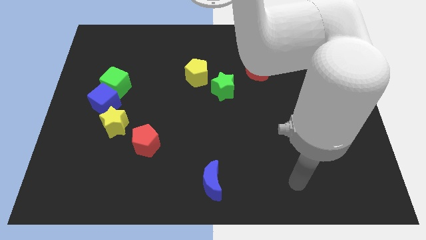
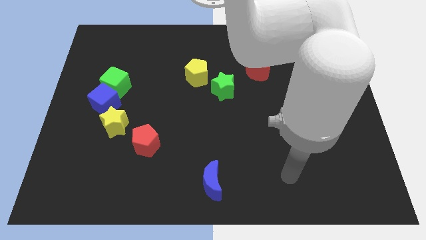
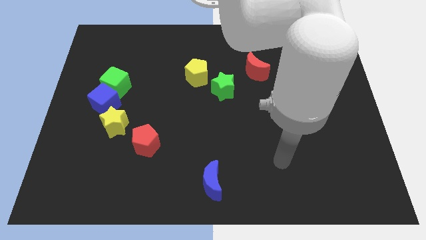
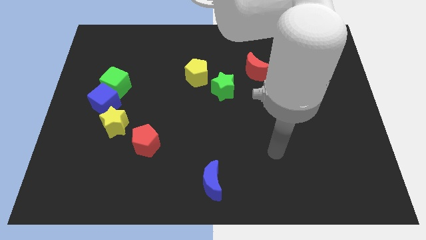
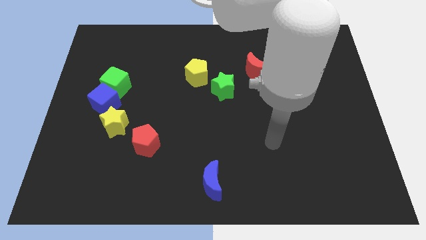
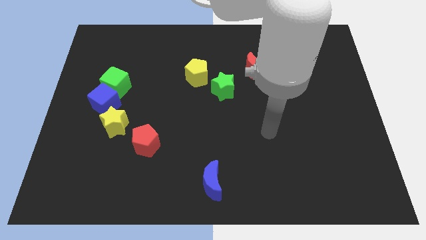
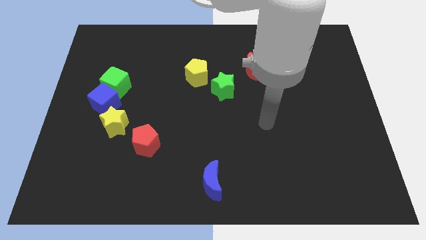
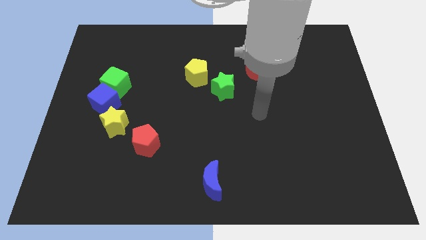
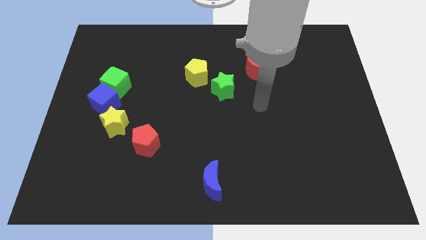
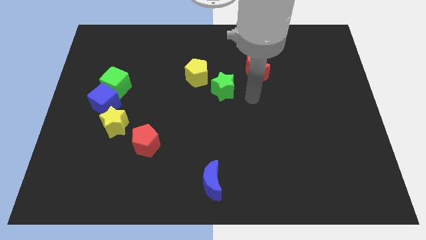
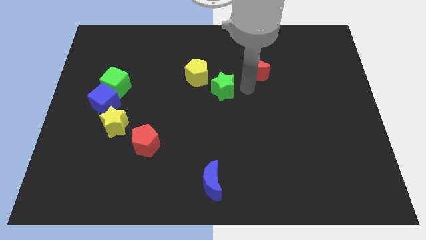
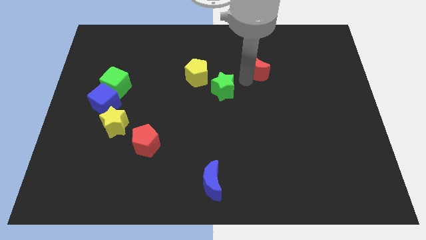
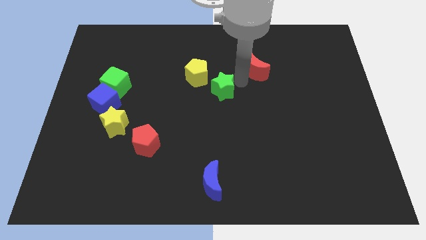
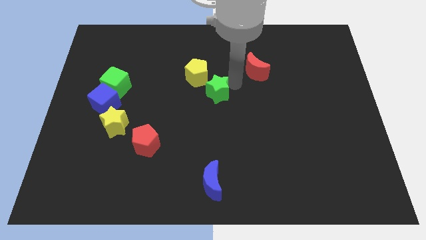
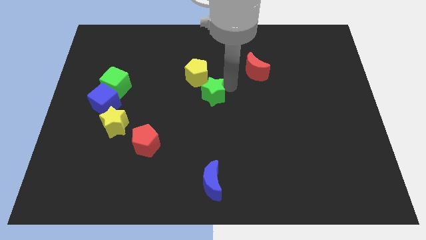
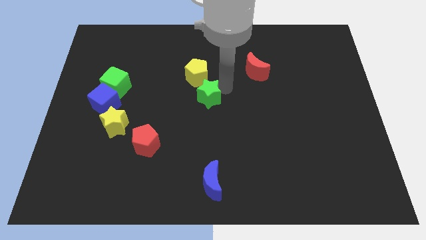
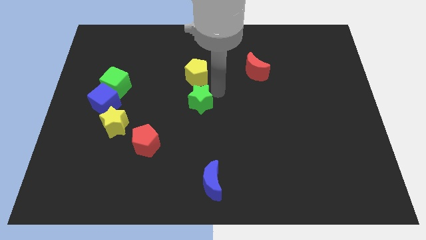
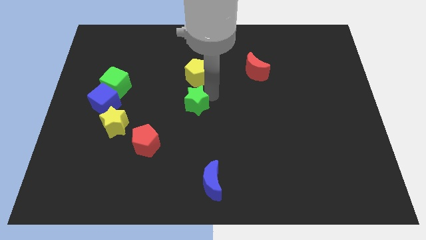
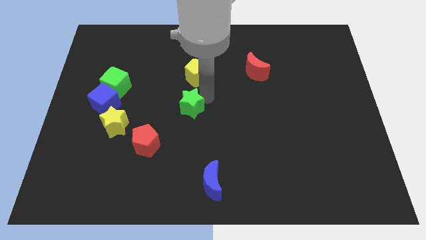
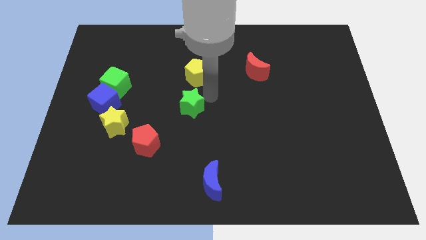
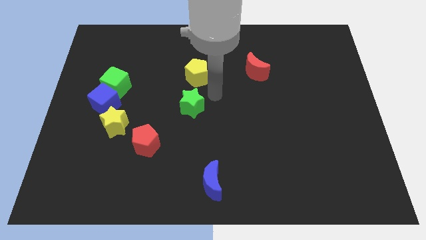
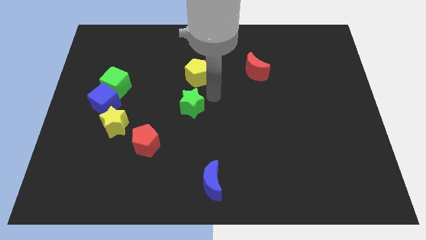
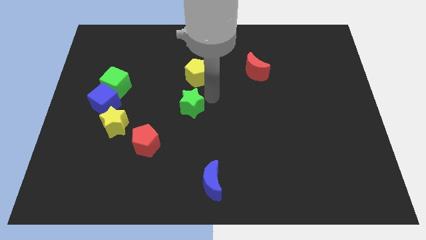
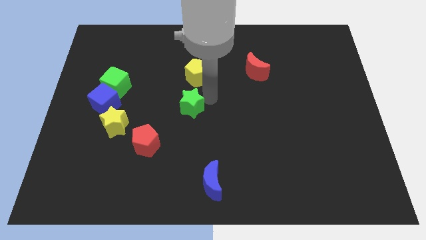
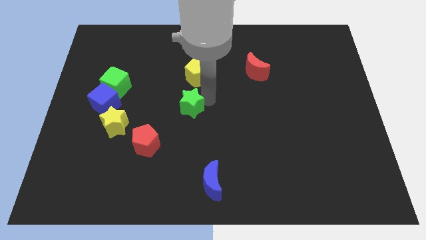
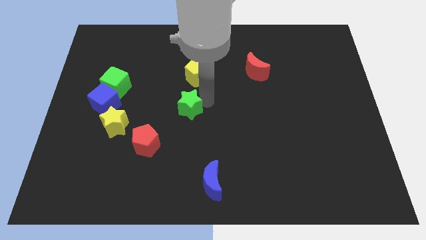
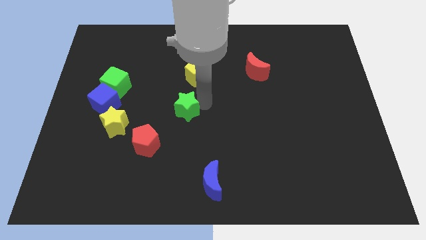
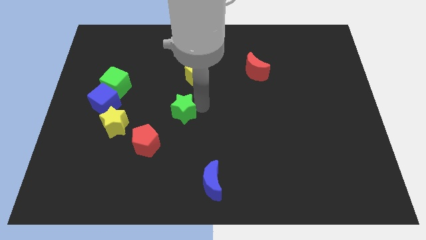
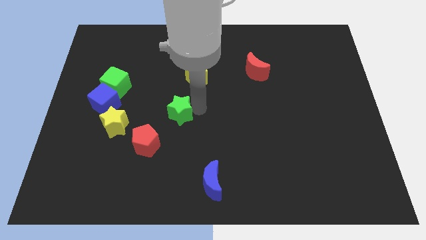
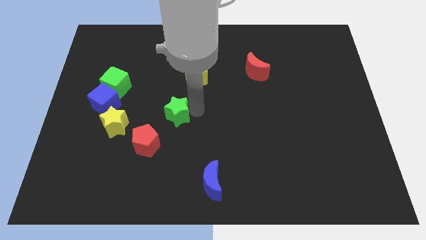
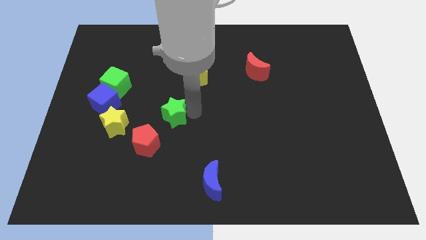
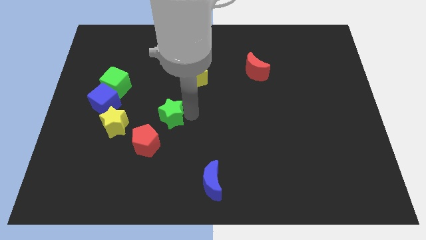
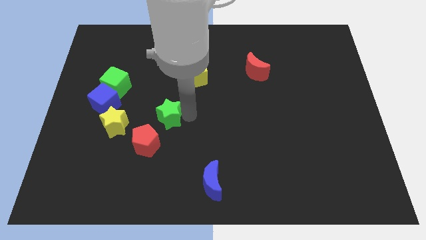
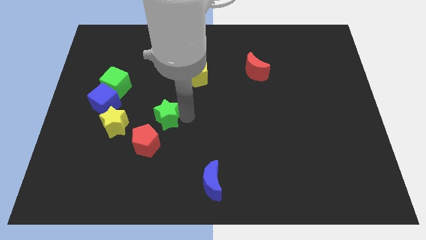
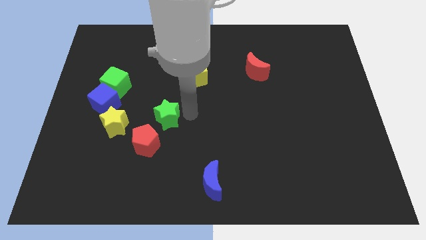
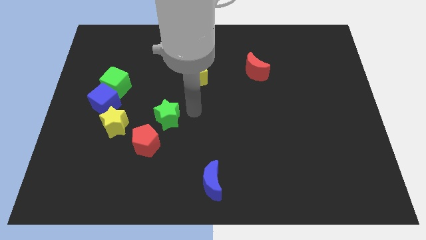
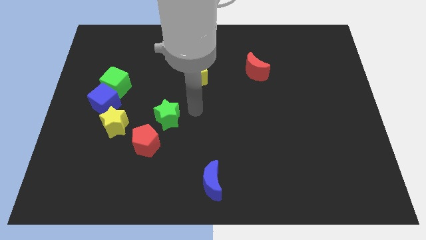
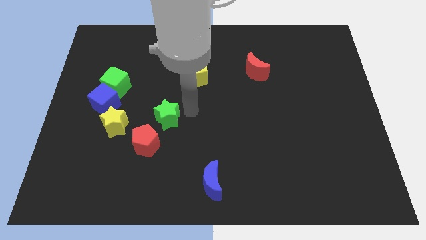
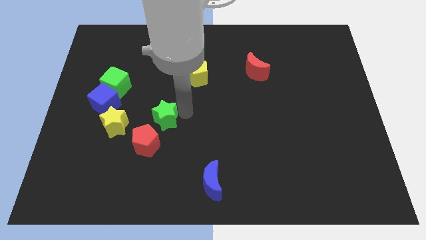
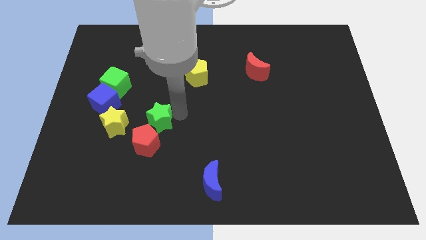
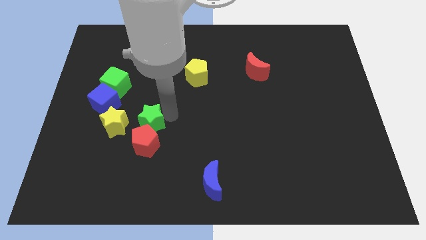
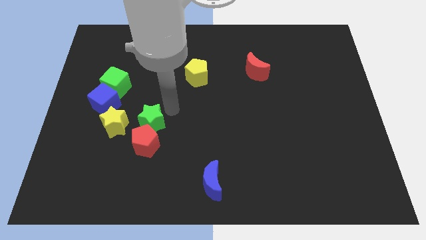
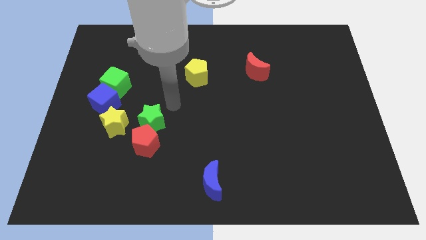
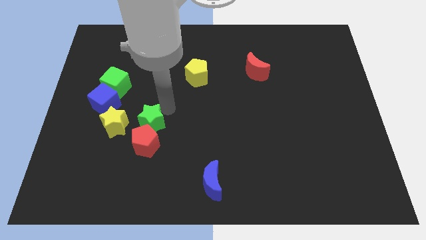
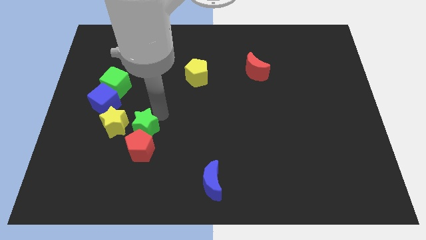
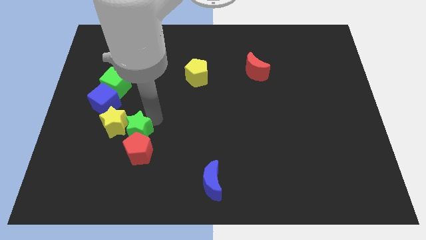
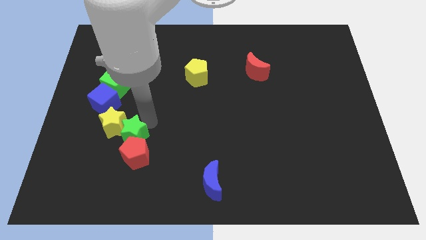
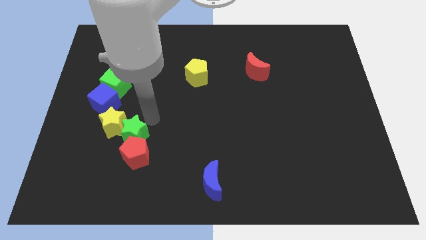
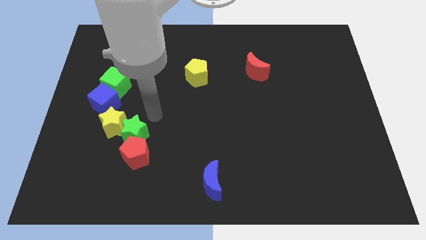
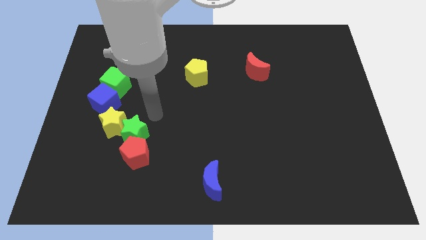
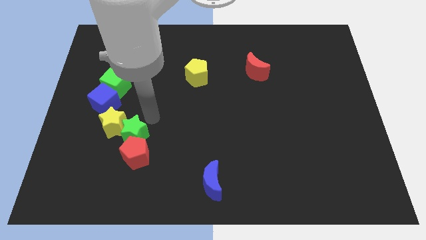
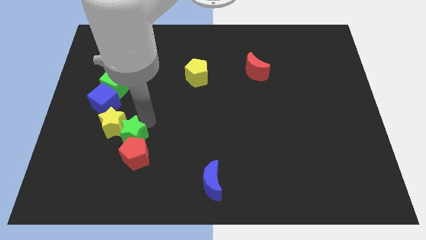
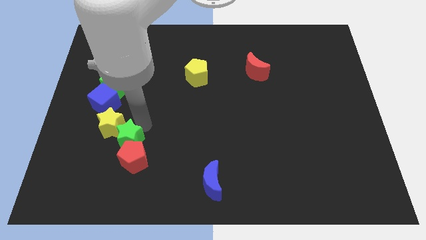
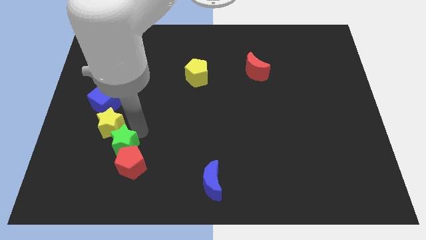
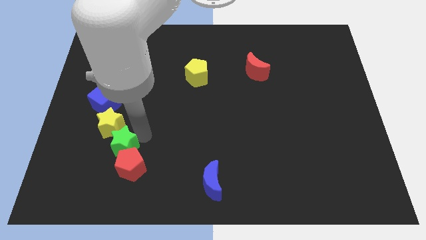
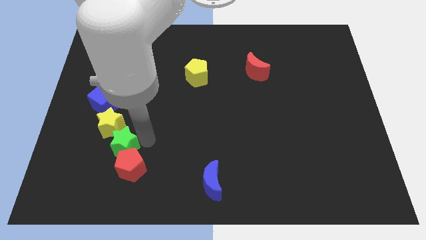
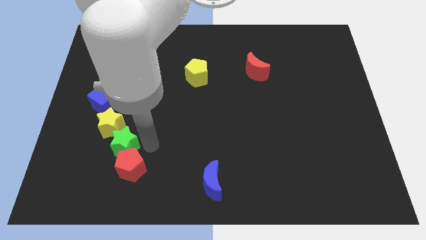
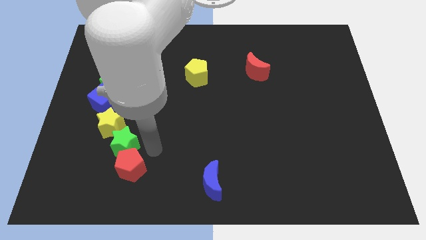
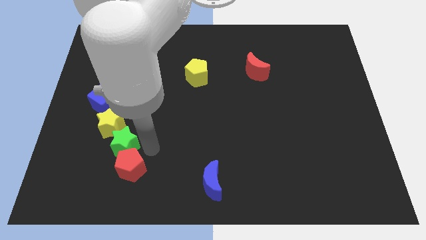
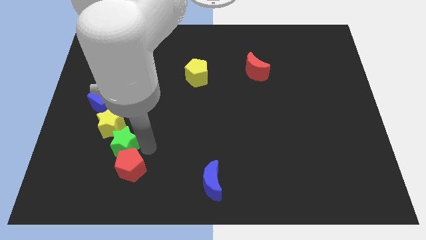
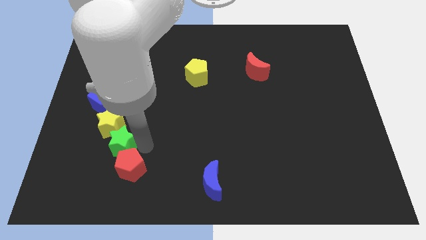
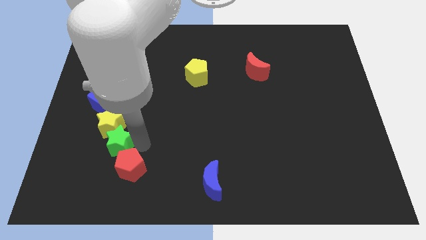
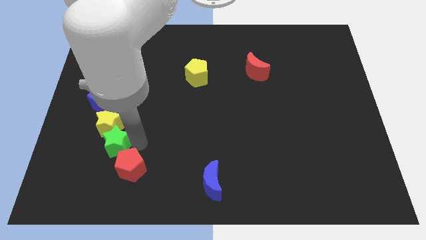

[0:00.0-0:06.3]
slide the green star to the bottom side of the blue cube

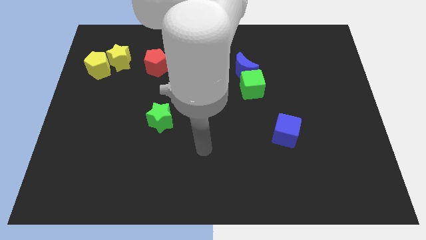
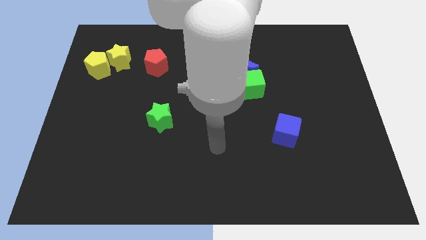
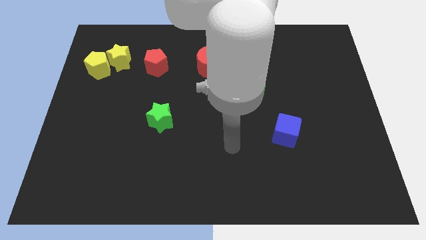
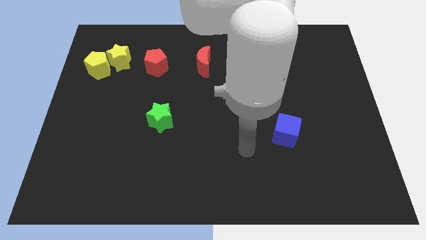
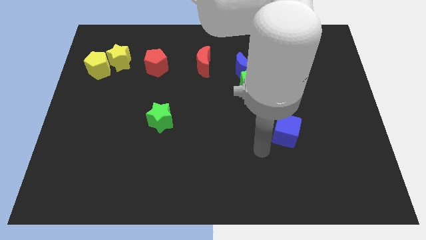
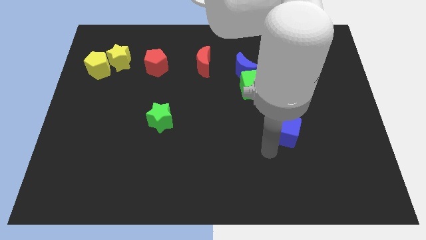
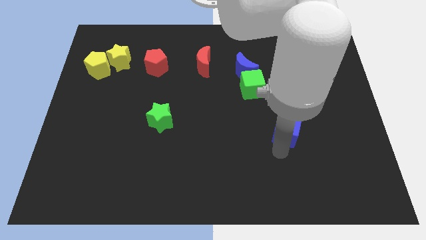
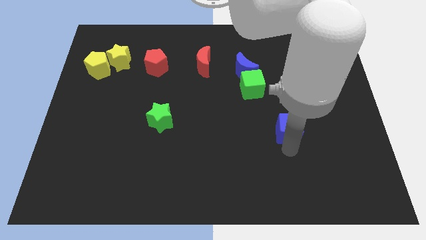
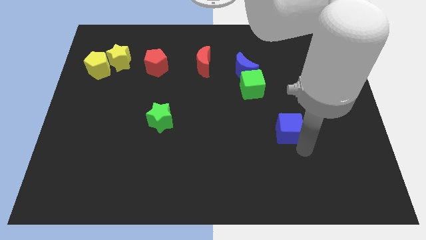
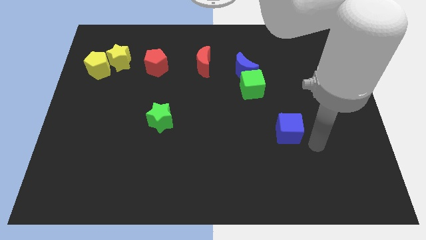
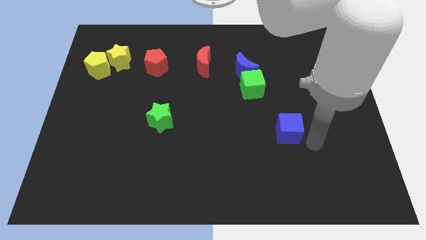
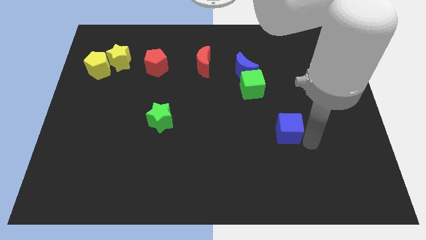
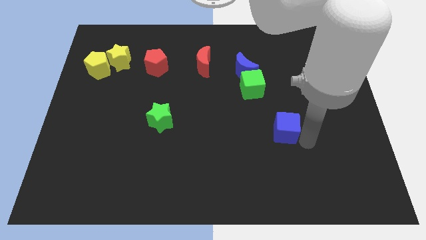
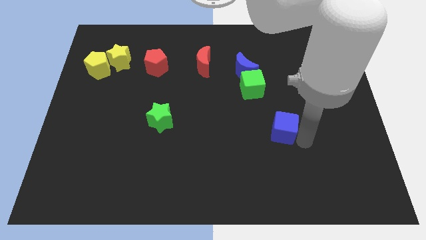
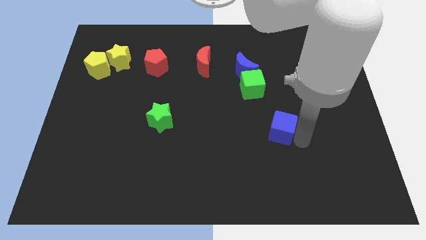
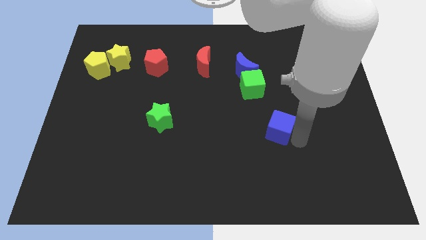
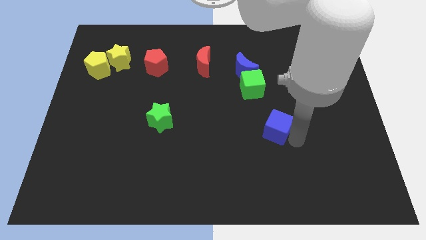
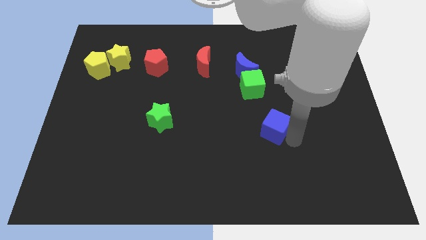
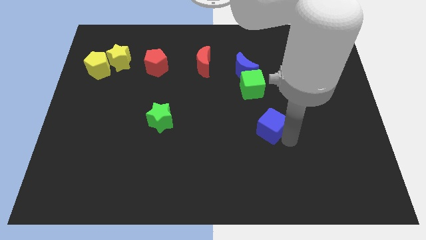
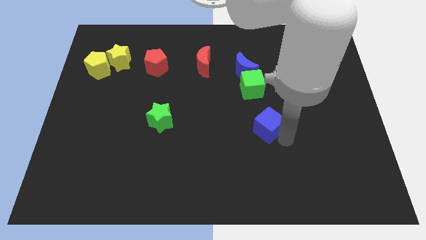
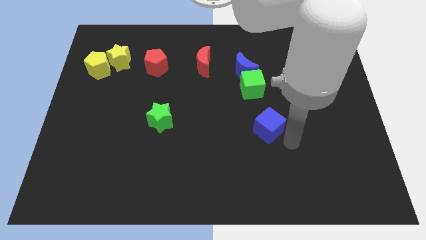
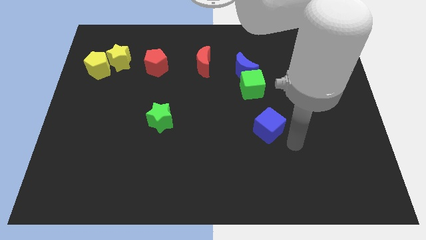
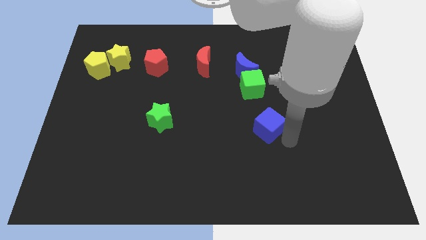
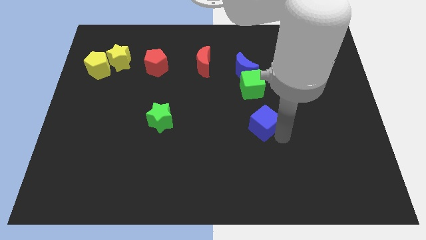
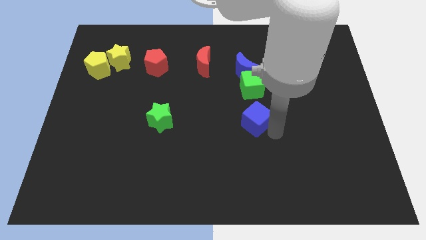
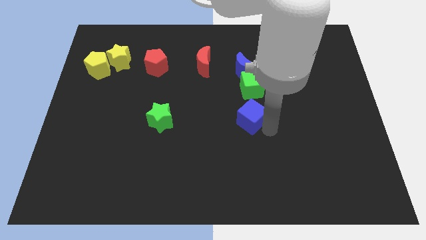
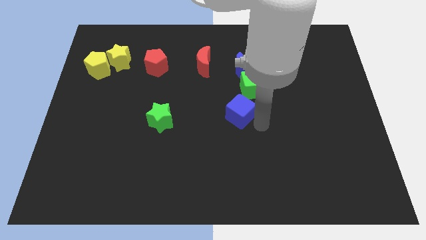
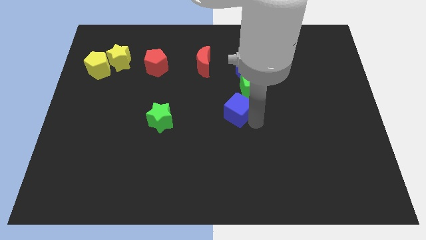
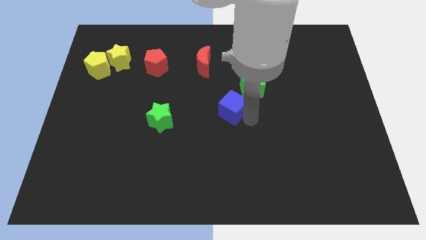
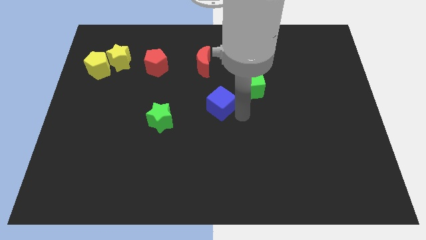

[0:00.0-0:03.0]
push the blue cube below the red moon
